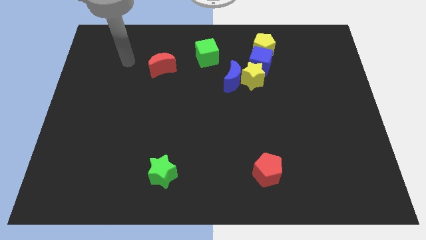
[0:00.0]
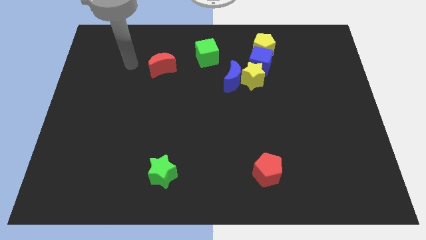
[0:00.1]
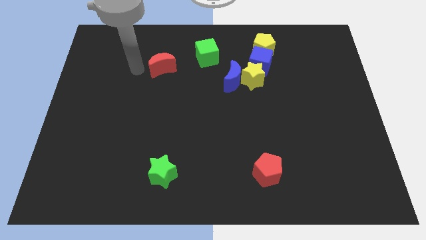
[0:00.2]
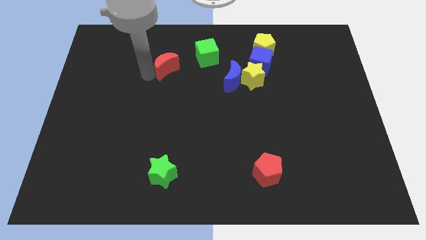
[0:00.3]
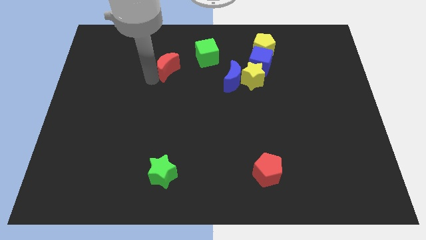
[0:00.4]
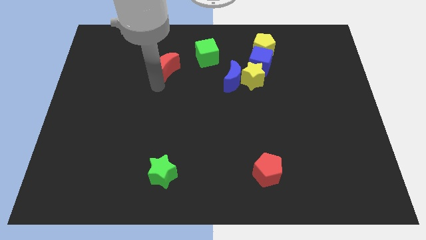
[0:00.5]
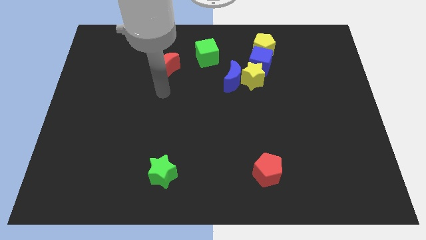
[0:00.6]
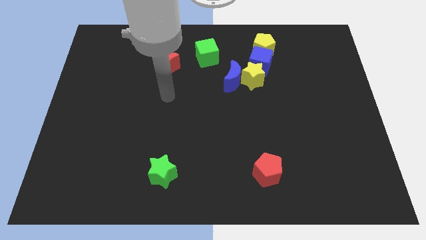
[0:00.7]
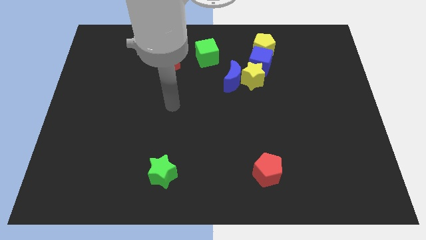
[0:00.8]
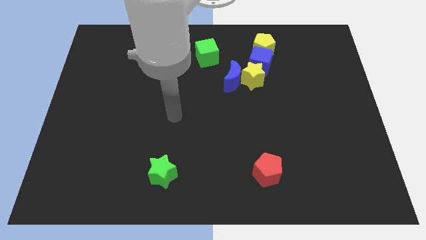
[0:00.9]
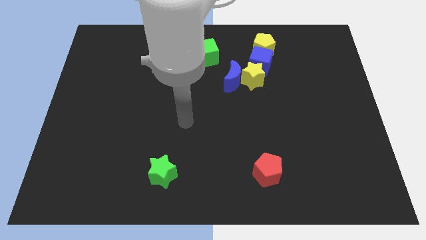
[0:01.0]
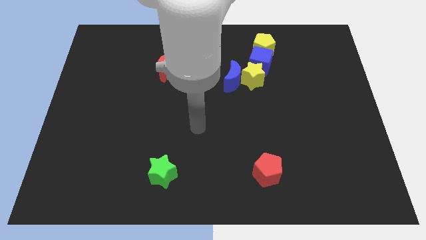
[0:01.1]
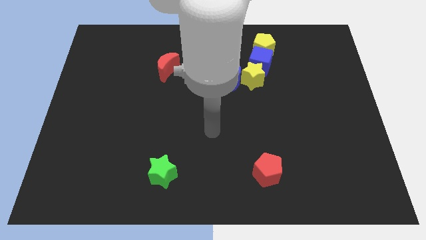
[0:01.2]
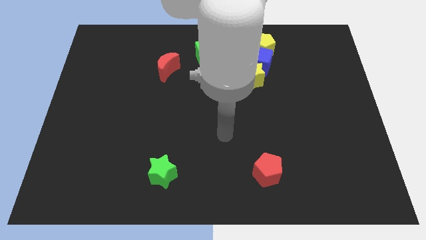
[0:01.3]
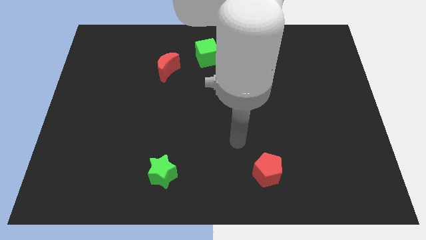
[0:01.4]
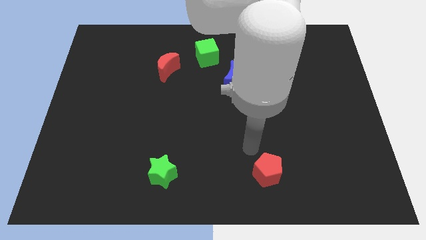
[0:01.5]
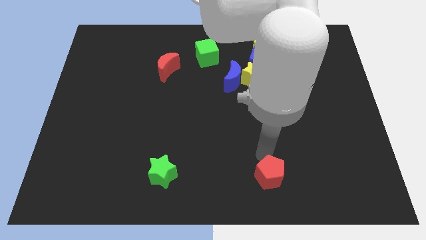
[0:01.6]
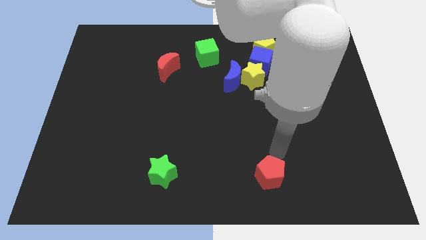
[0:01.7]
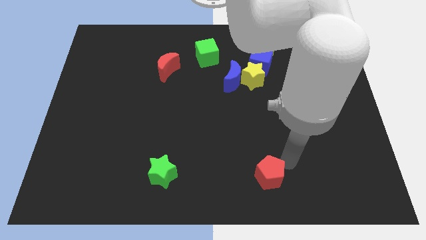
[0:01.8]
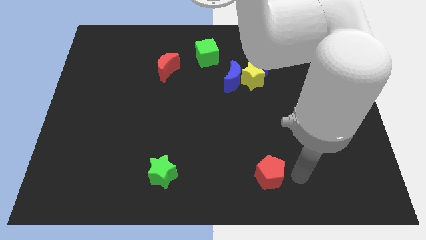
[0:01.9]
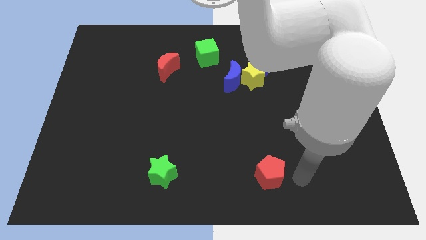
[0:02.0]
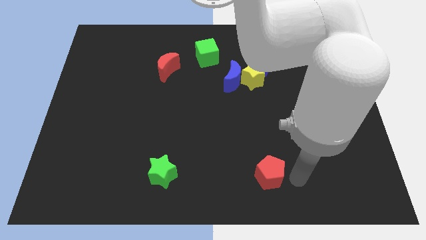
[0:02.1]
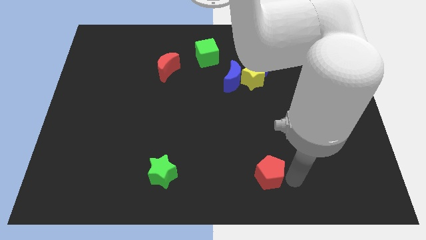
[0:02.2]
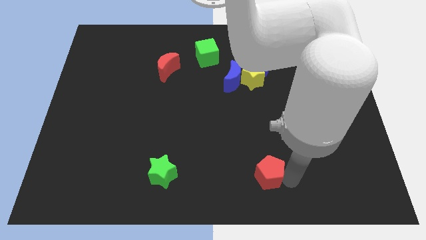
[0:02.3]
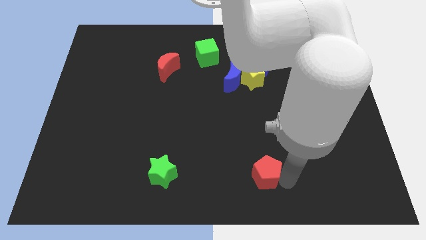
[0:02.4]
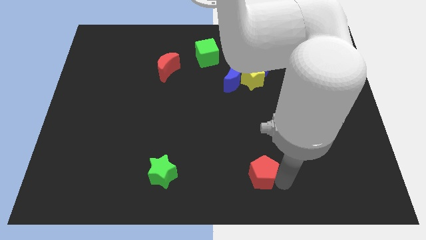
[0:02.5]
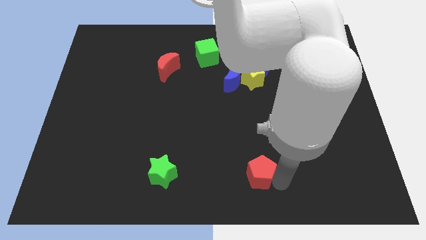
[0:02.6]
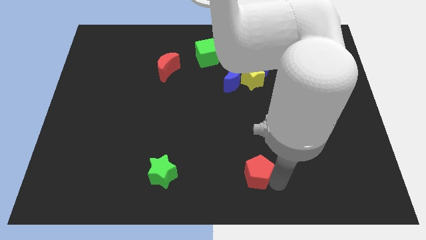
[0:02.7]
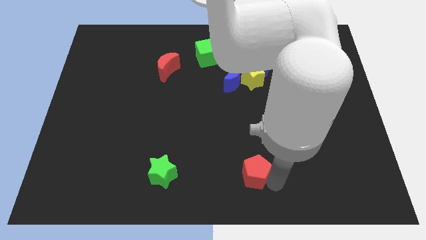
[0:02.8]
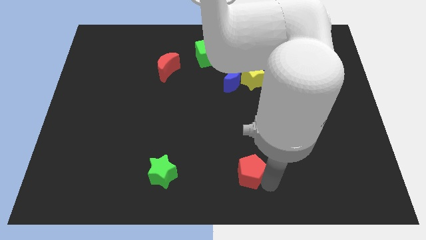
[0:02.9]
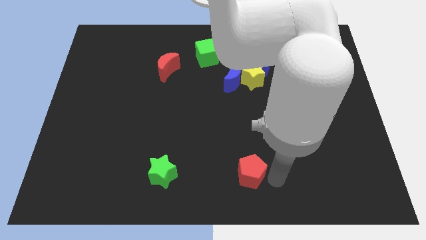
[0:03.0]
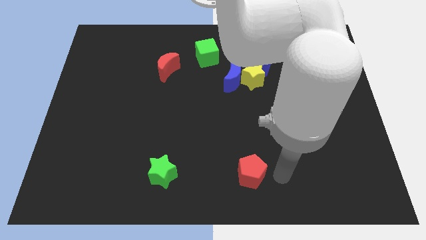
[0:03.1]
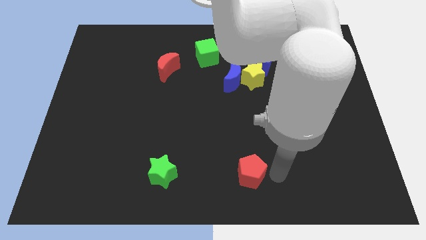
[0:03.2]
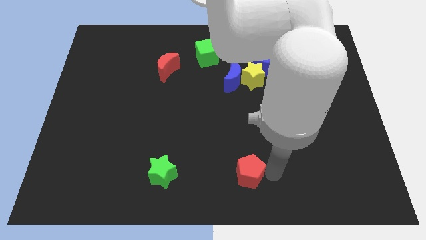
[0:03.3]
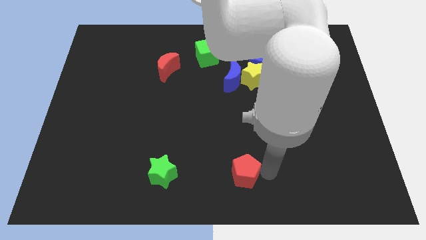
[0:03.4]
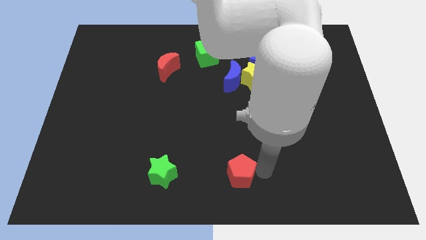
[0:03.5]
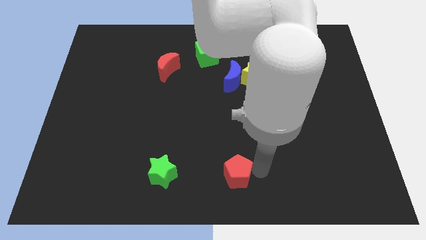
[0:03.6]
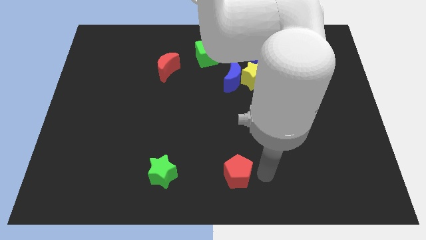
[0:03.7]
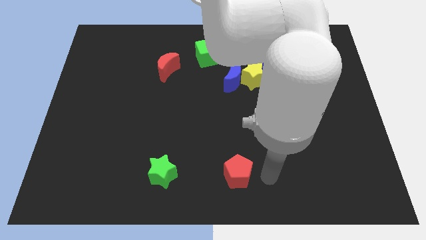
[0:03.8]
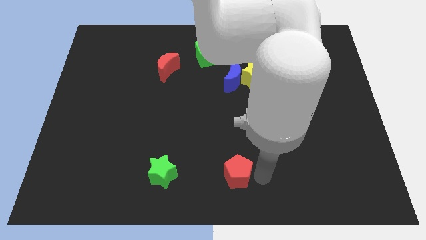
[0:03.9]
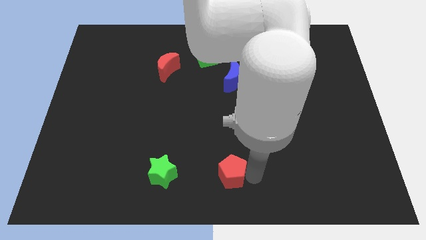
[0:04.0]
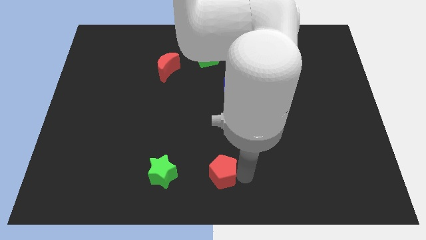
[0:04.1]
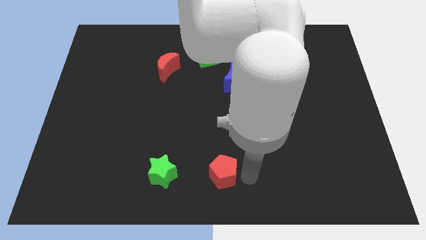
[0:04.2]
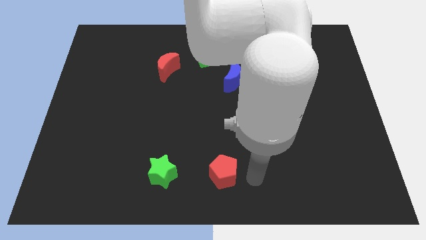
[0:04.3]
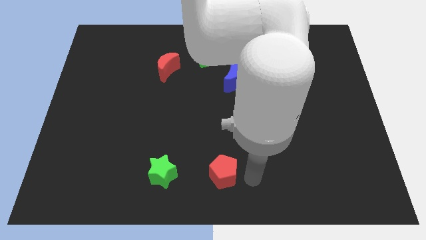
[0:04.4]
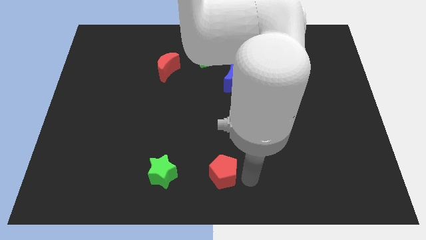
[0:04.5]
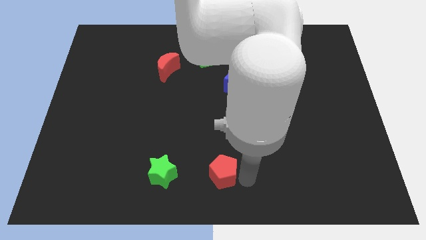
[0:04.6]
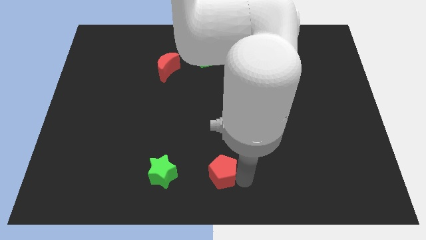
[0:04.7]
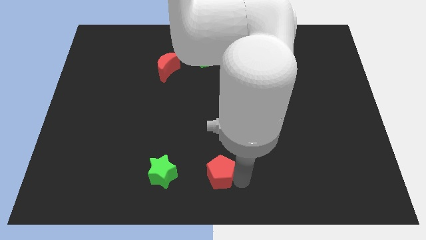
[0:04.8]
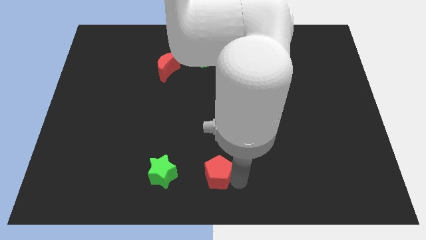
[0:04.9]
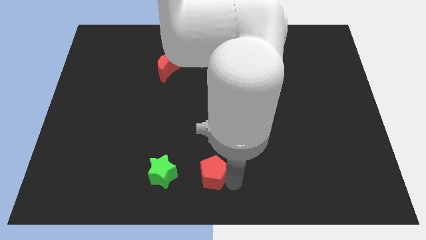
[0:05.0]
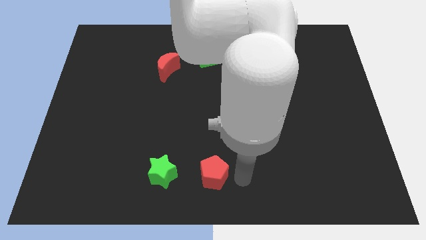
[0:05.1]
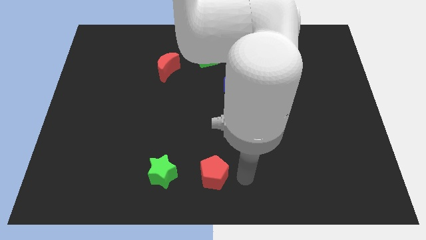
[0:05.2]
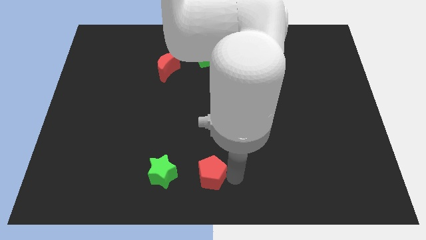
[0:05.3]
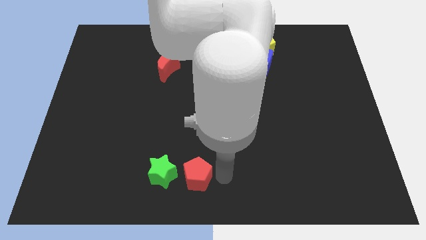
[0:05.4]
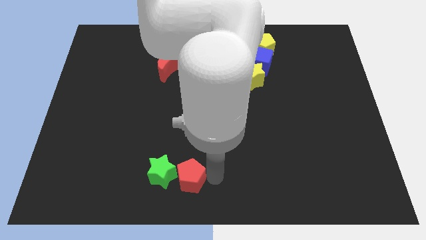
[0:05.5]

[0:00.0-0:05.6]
slide the red pentagon close to the green star

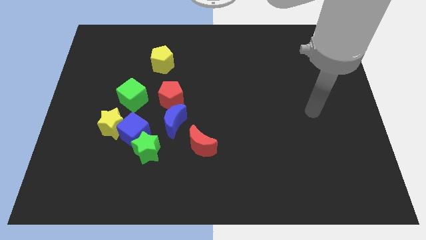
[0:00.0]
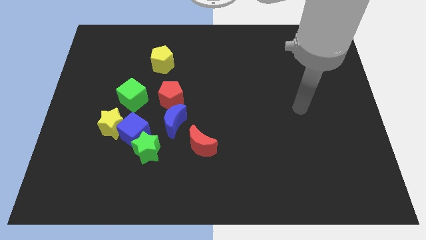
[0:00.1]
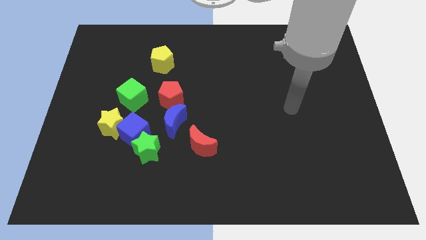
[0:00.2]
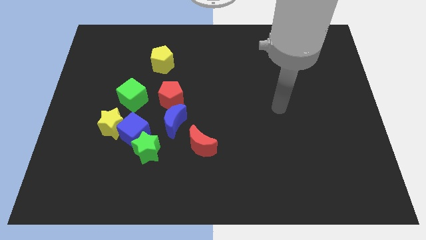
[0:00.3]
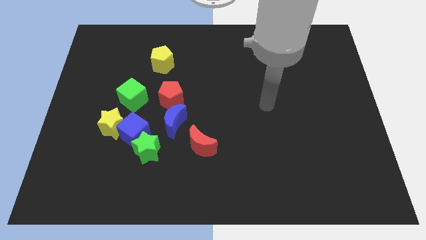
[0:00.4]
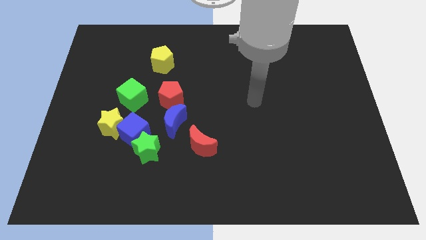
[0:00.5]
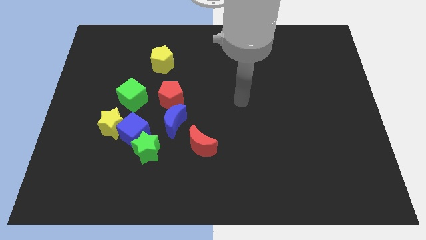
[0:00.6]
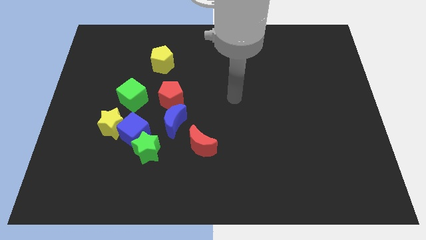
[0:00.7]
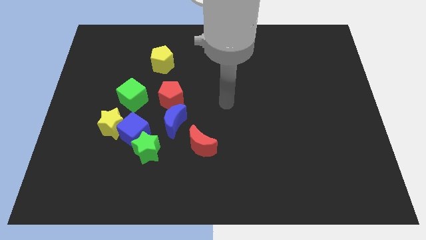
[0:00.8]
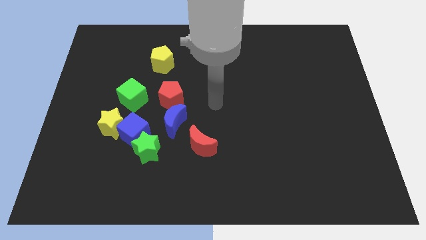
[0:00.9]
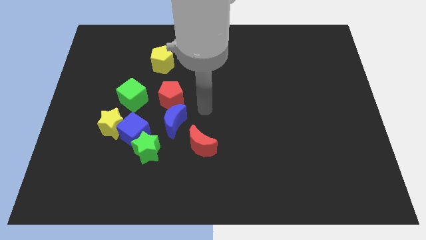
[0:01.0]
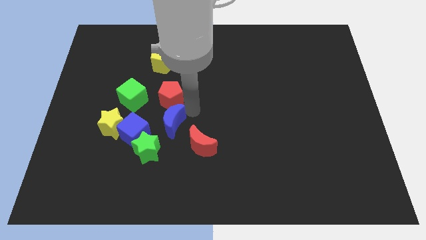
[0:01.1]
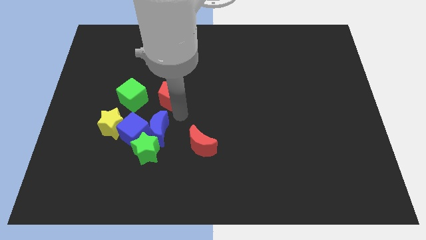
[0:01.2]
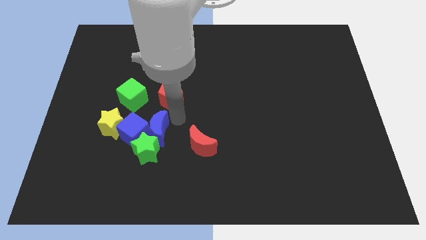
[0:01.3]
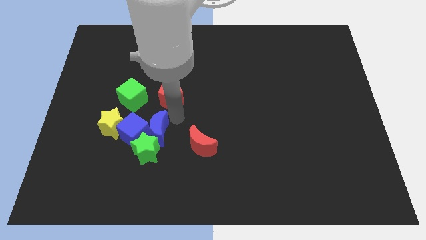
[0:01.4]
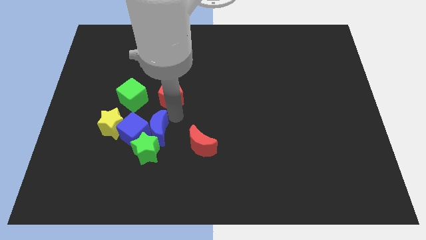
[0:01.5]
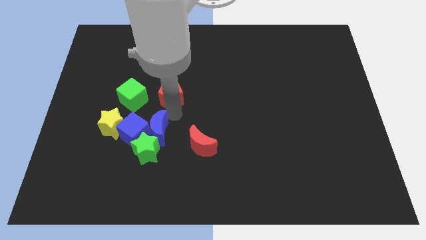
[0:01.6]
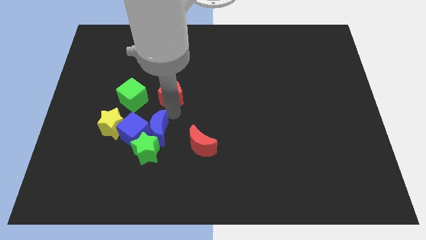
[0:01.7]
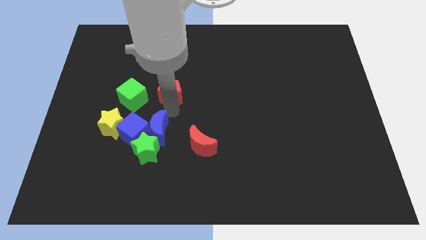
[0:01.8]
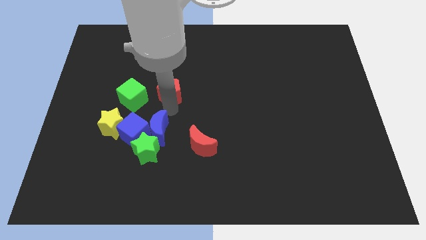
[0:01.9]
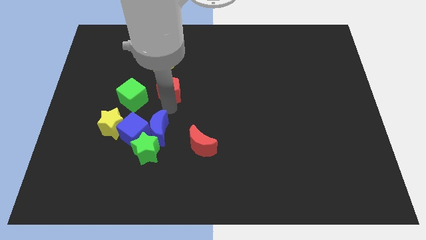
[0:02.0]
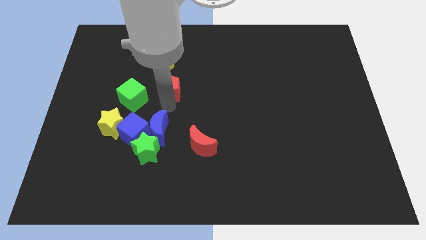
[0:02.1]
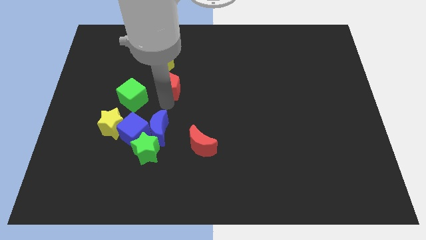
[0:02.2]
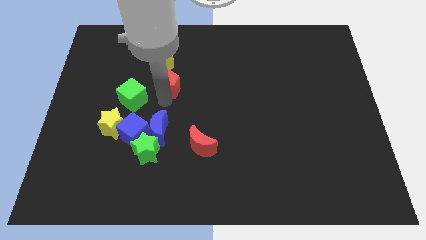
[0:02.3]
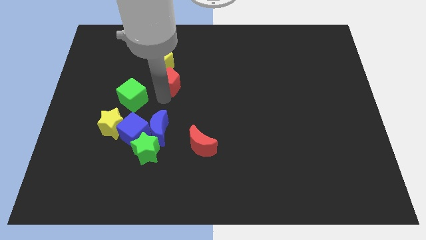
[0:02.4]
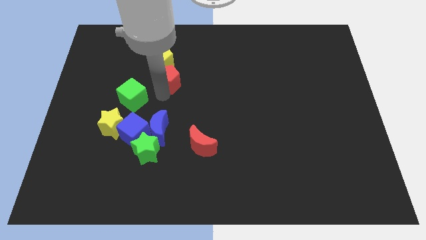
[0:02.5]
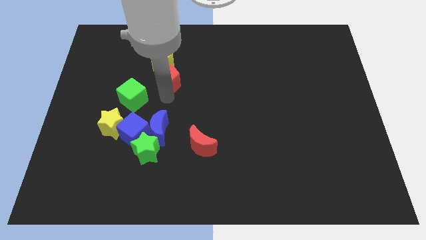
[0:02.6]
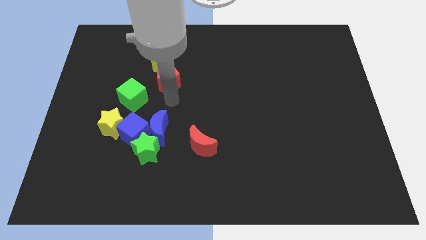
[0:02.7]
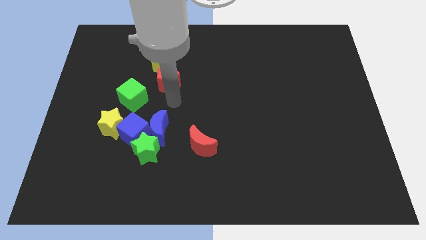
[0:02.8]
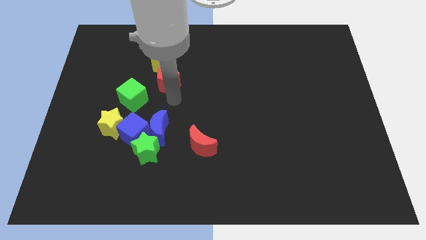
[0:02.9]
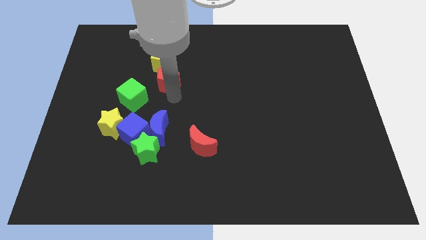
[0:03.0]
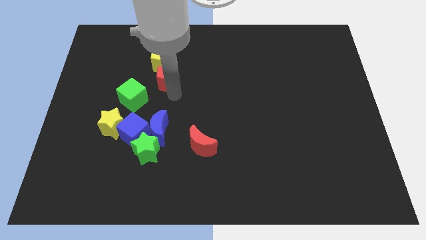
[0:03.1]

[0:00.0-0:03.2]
put the red pentagon close to the yellow pentagon
